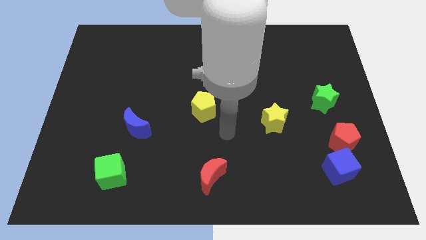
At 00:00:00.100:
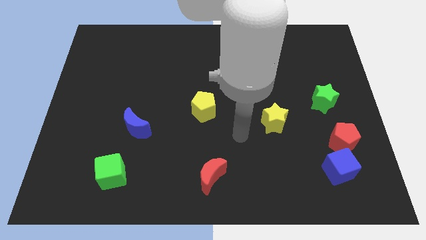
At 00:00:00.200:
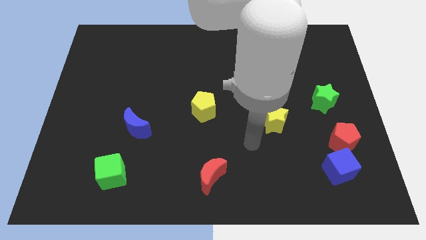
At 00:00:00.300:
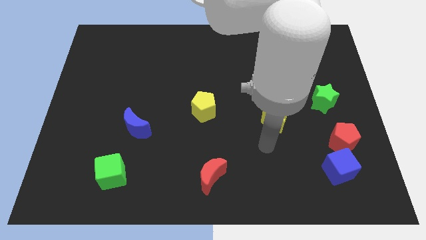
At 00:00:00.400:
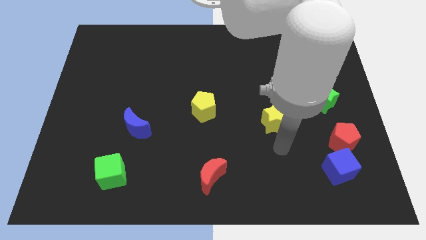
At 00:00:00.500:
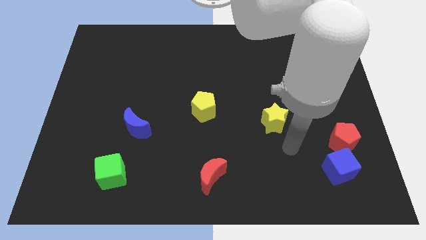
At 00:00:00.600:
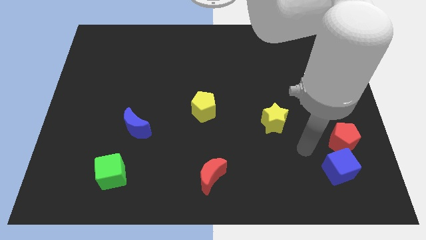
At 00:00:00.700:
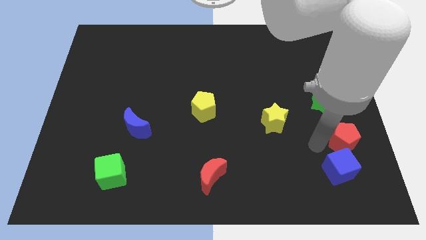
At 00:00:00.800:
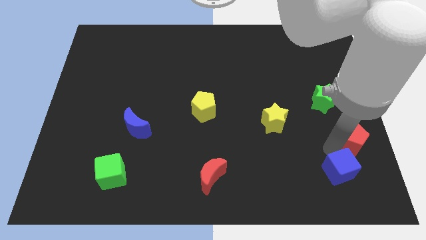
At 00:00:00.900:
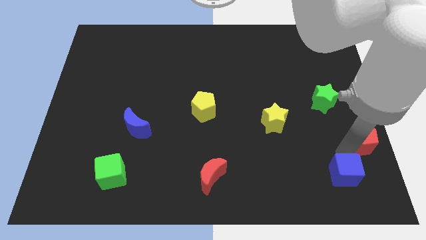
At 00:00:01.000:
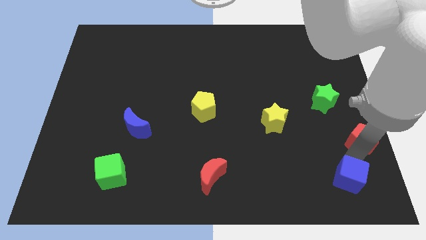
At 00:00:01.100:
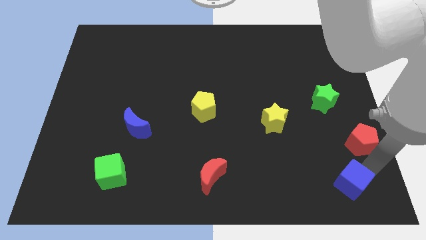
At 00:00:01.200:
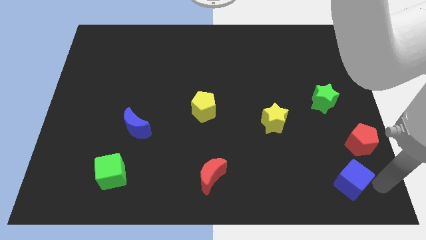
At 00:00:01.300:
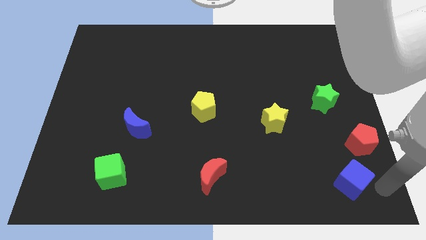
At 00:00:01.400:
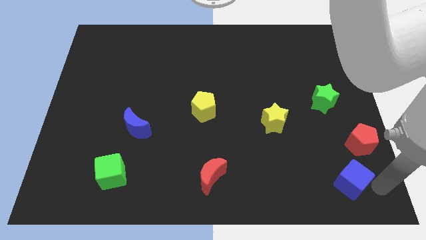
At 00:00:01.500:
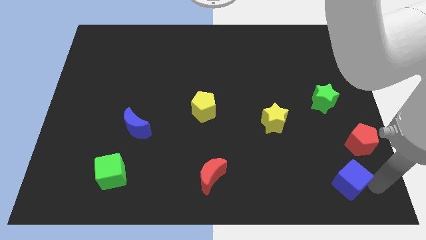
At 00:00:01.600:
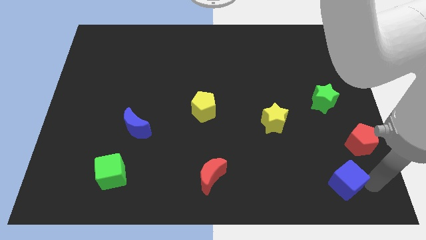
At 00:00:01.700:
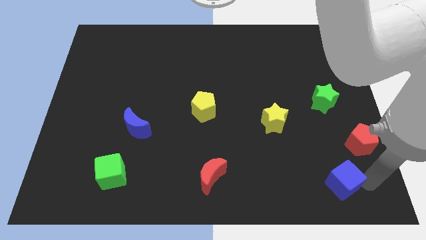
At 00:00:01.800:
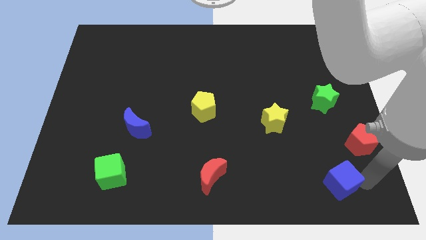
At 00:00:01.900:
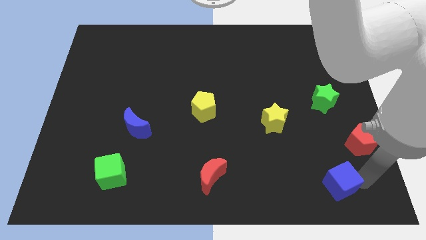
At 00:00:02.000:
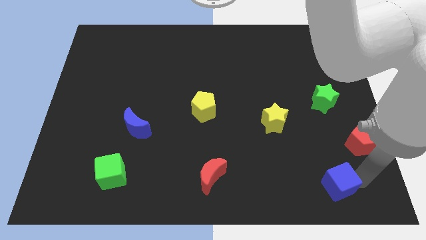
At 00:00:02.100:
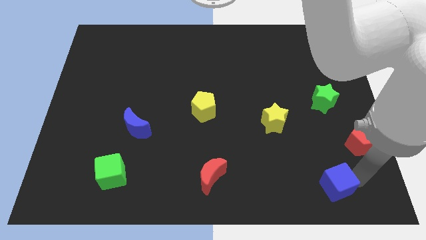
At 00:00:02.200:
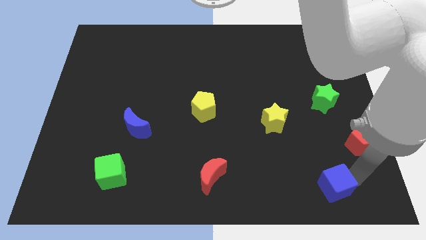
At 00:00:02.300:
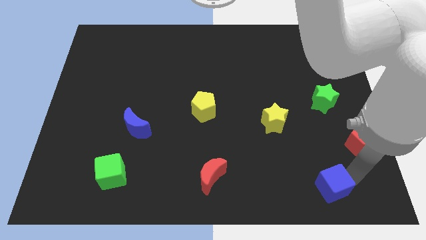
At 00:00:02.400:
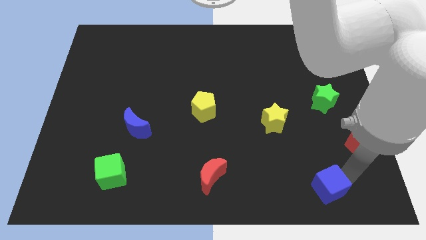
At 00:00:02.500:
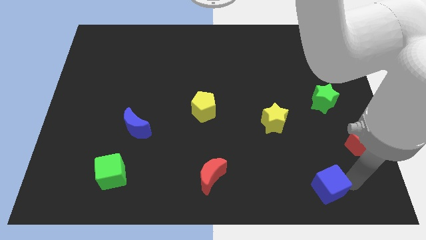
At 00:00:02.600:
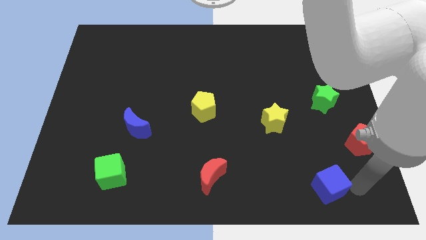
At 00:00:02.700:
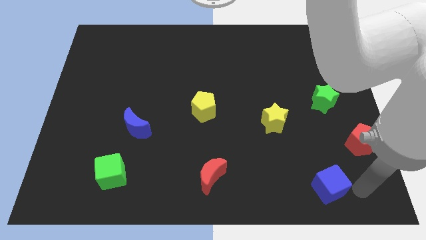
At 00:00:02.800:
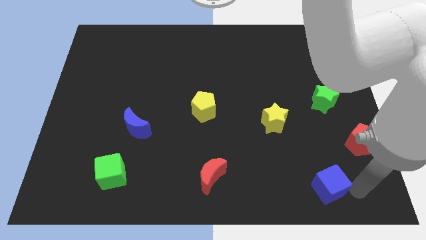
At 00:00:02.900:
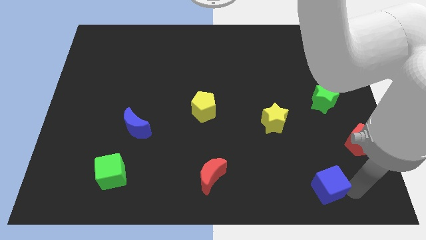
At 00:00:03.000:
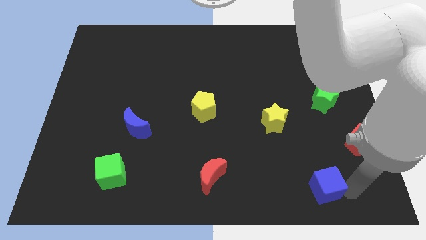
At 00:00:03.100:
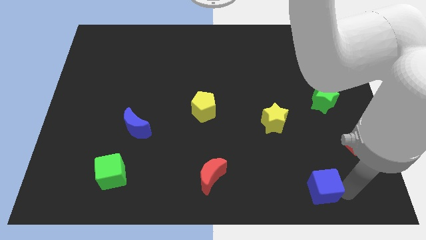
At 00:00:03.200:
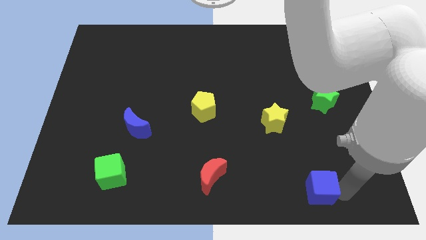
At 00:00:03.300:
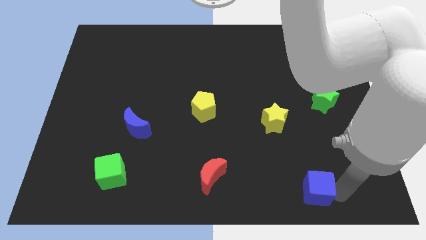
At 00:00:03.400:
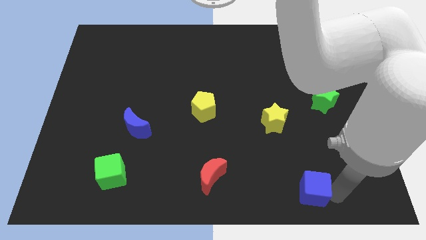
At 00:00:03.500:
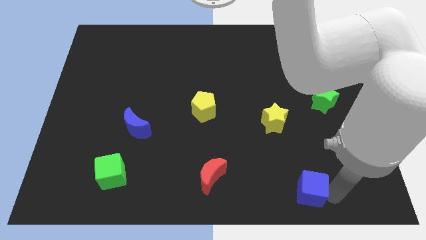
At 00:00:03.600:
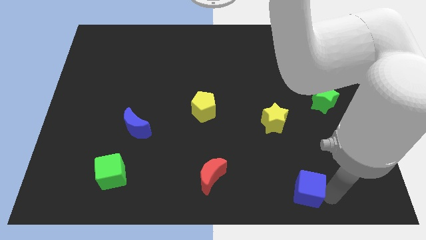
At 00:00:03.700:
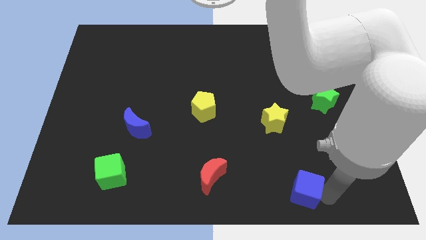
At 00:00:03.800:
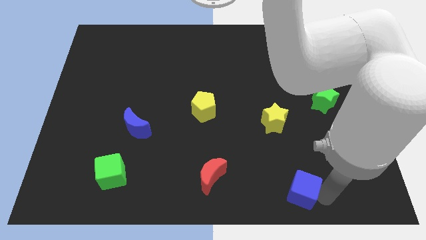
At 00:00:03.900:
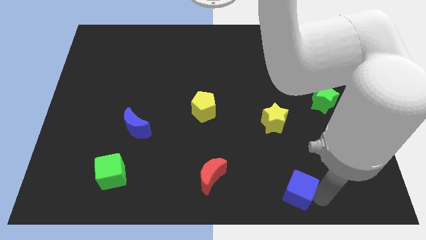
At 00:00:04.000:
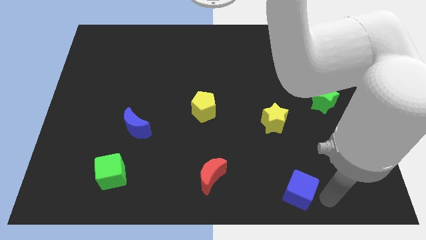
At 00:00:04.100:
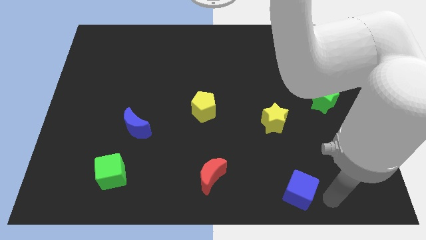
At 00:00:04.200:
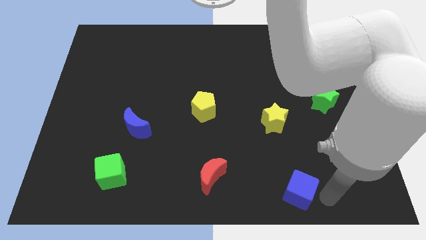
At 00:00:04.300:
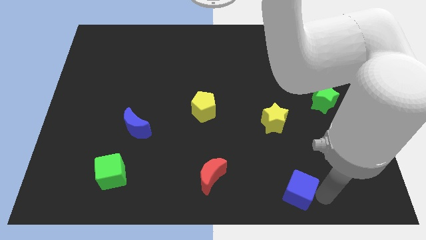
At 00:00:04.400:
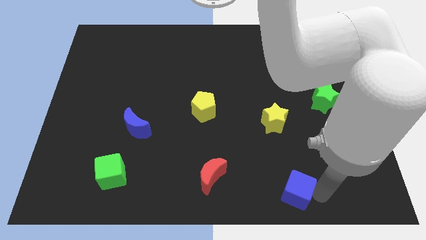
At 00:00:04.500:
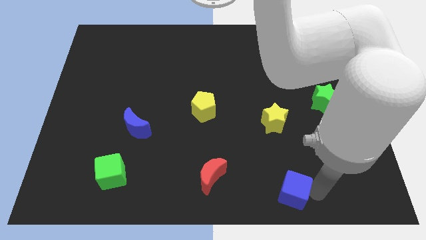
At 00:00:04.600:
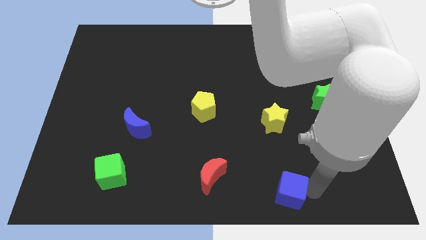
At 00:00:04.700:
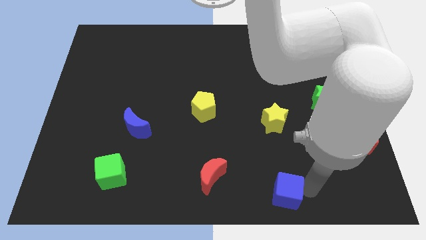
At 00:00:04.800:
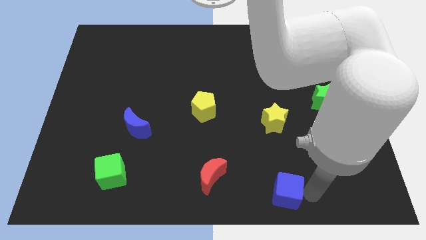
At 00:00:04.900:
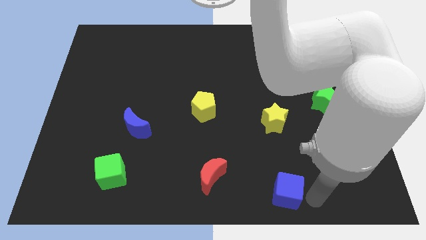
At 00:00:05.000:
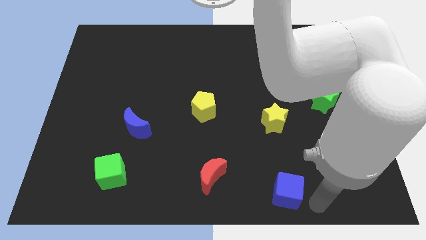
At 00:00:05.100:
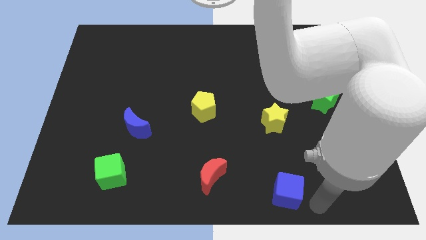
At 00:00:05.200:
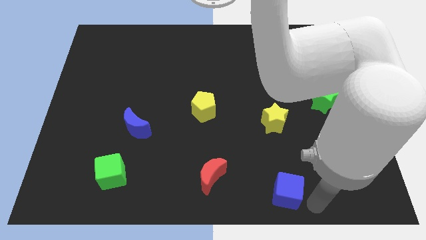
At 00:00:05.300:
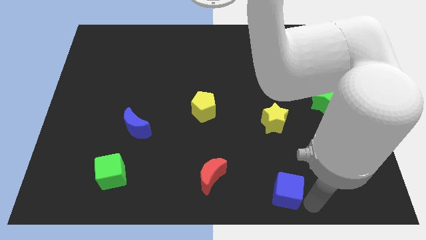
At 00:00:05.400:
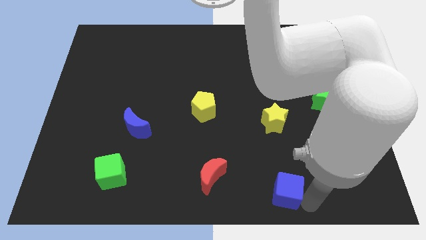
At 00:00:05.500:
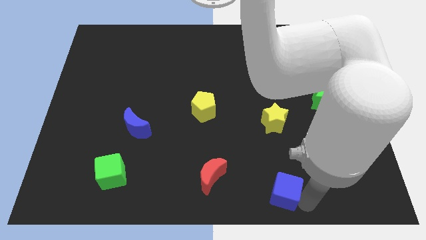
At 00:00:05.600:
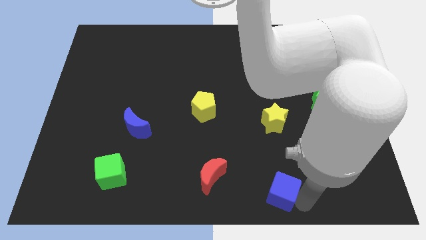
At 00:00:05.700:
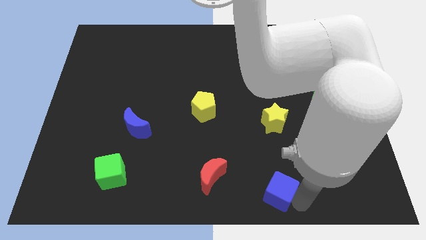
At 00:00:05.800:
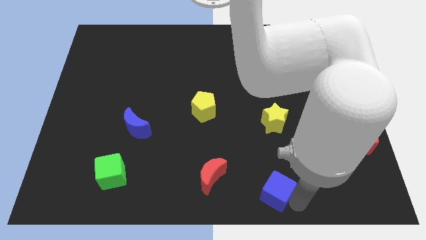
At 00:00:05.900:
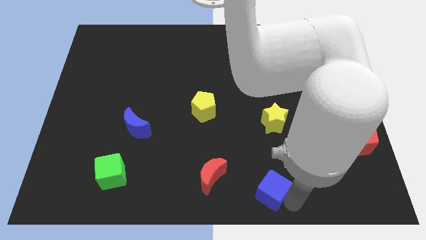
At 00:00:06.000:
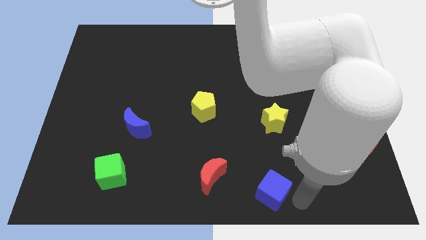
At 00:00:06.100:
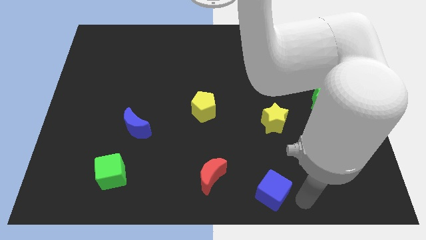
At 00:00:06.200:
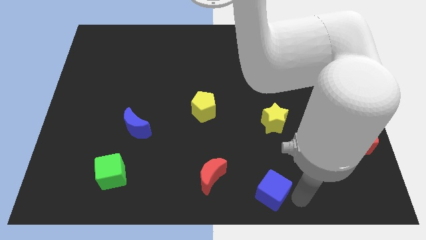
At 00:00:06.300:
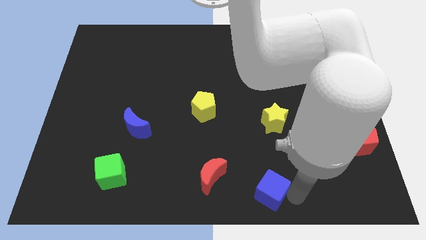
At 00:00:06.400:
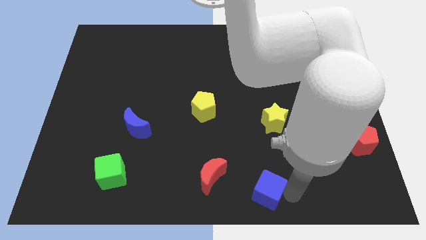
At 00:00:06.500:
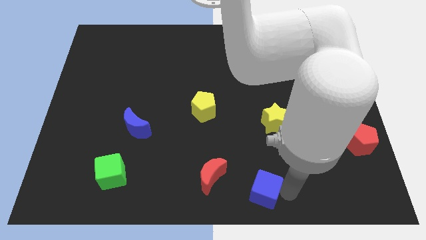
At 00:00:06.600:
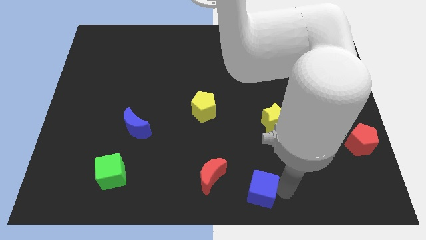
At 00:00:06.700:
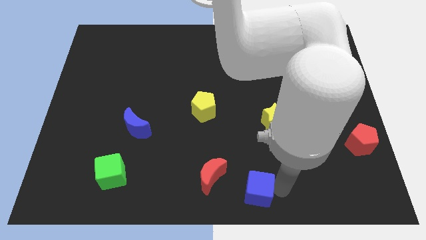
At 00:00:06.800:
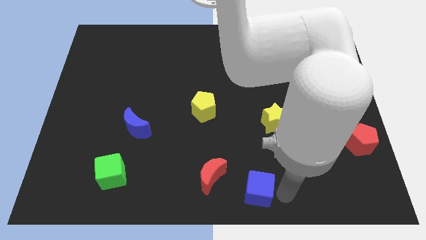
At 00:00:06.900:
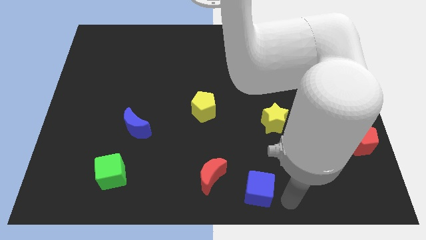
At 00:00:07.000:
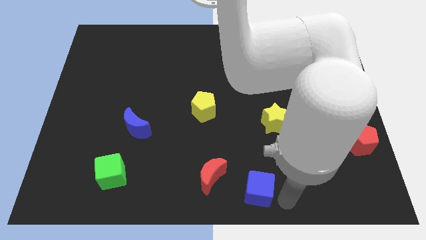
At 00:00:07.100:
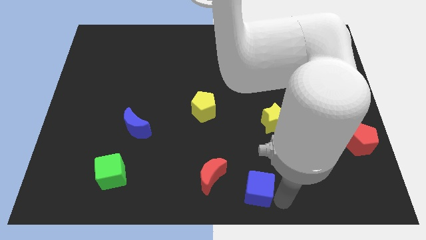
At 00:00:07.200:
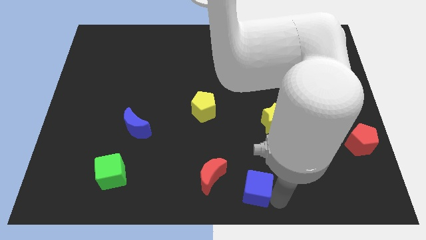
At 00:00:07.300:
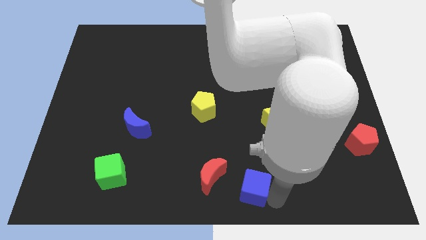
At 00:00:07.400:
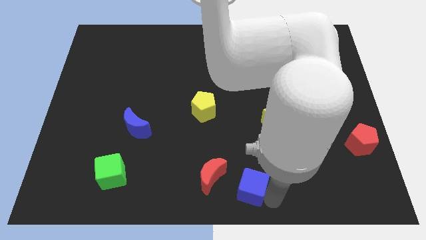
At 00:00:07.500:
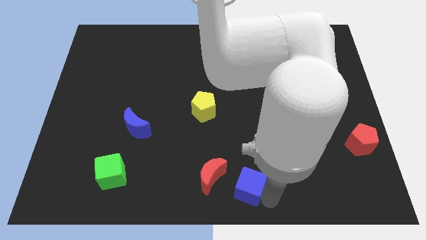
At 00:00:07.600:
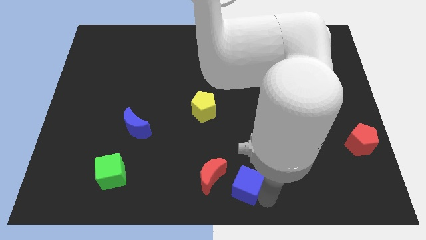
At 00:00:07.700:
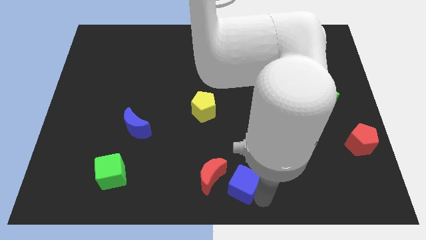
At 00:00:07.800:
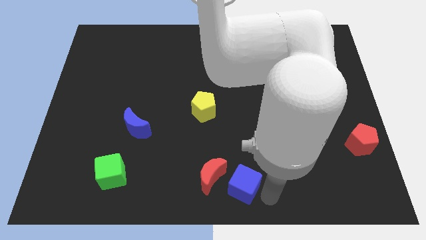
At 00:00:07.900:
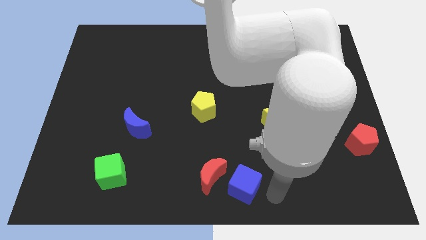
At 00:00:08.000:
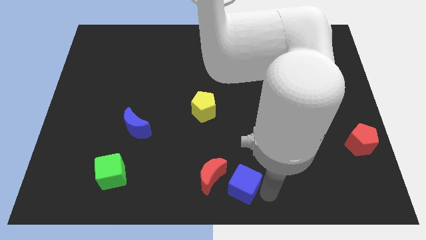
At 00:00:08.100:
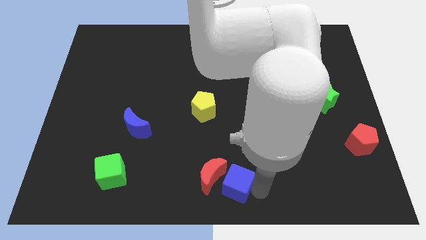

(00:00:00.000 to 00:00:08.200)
push the blue cube close to the red moon
